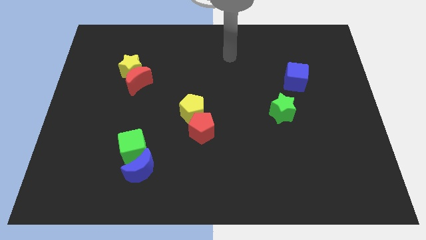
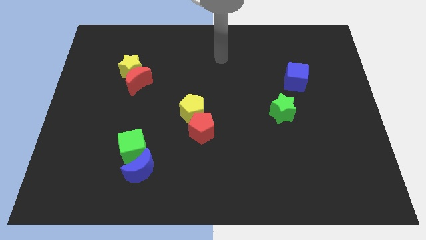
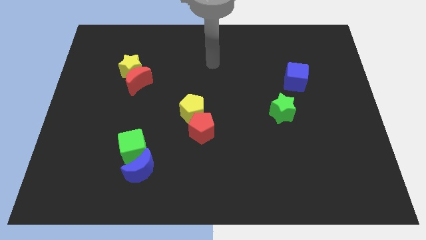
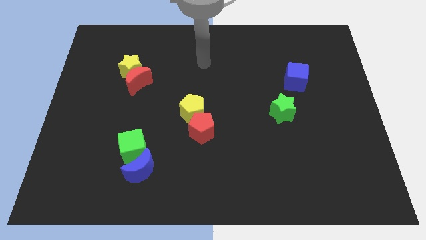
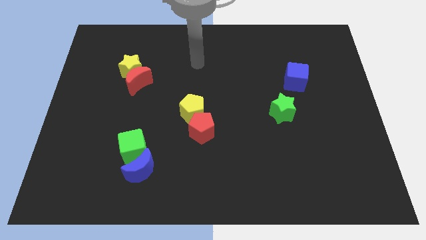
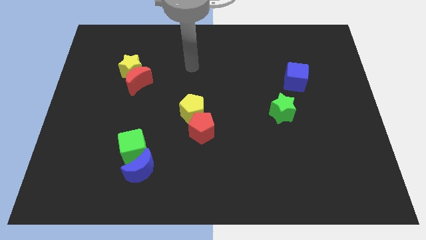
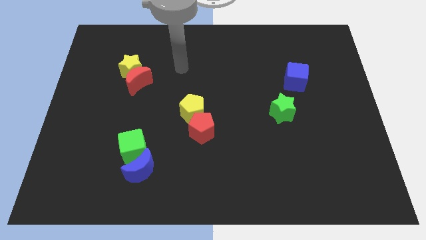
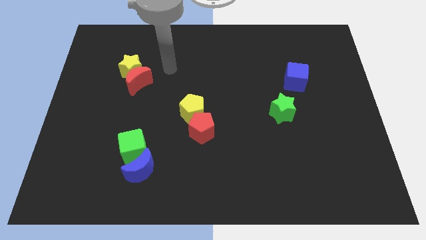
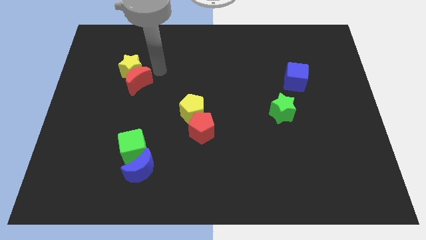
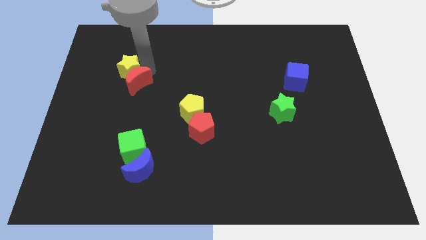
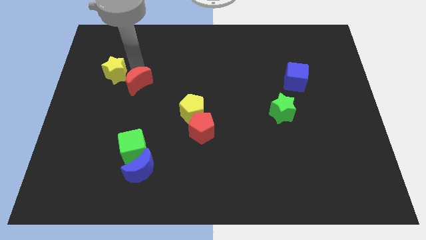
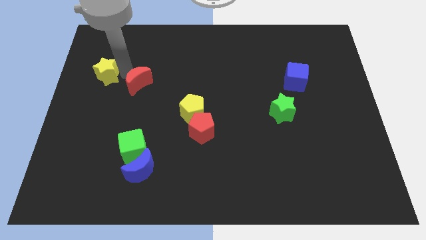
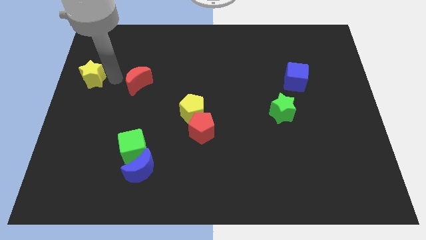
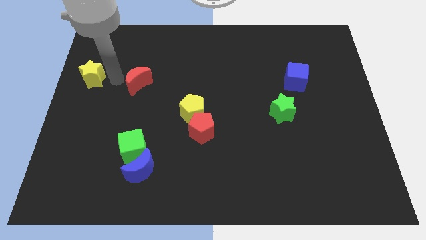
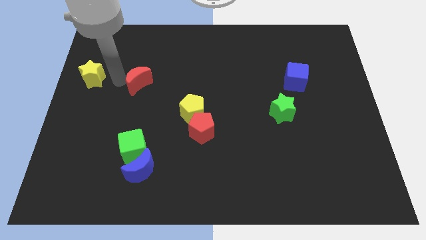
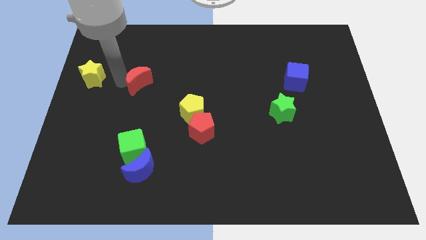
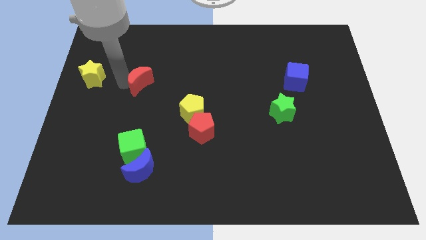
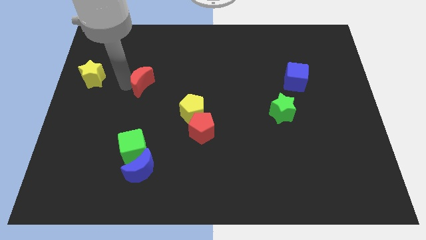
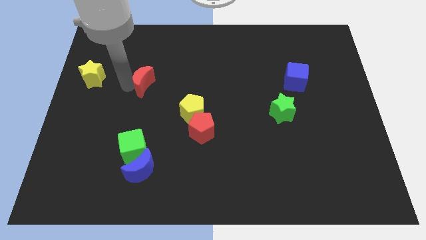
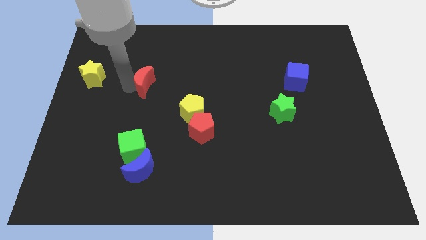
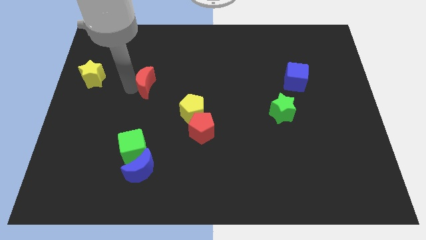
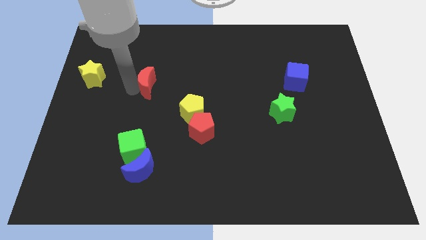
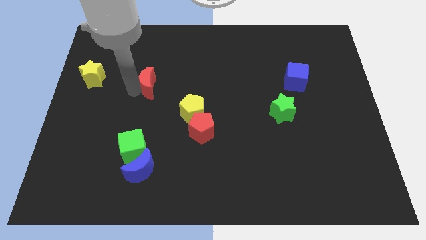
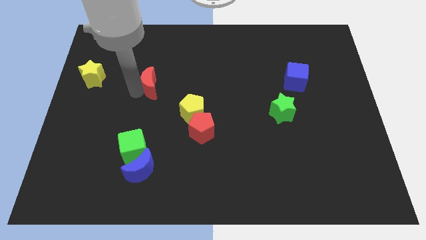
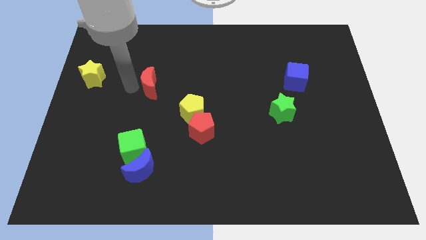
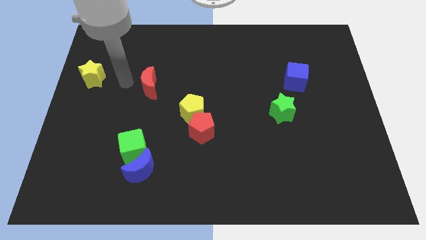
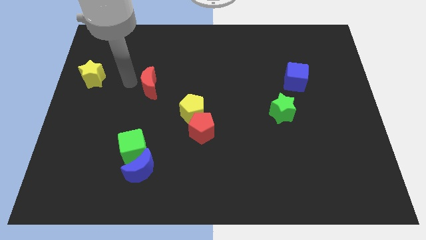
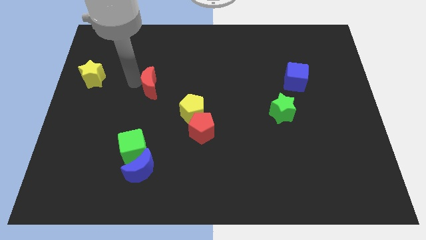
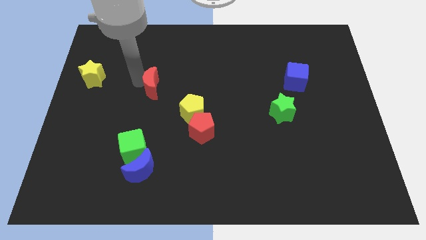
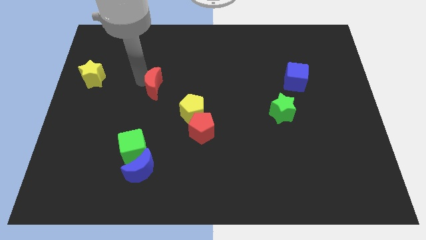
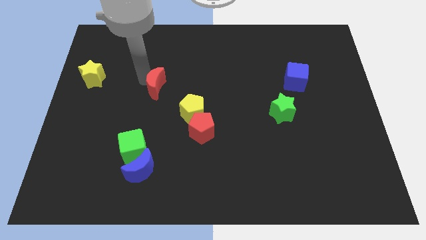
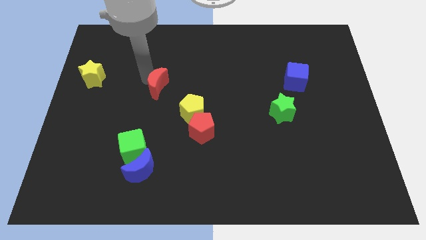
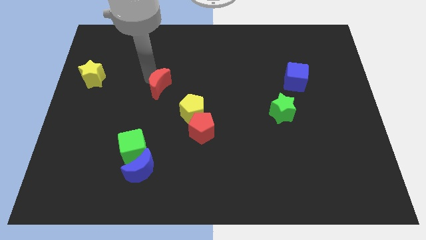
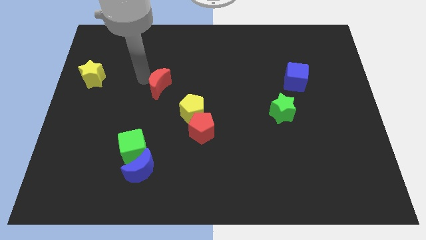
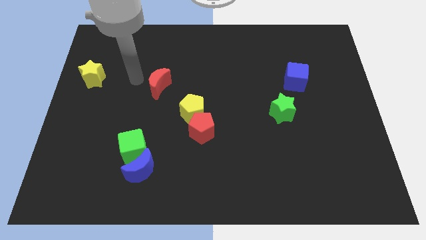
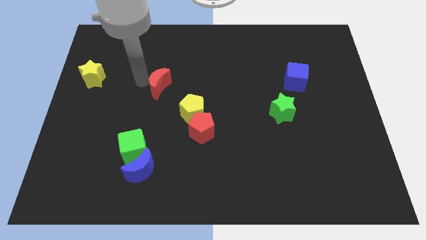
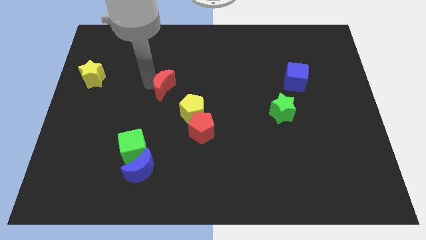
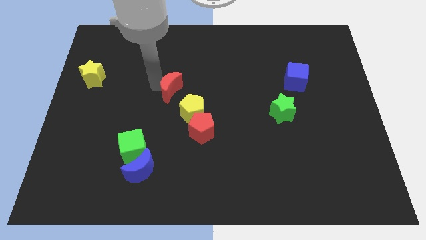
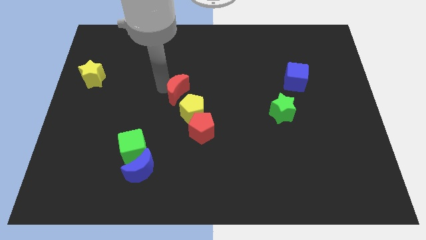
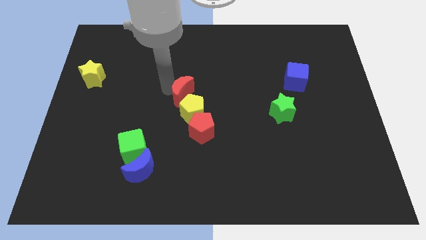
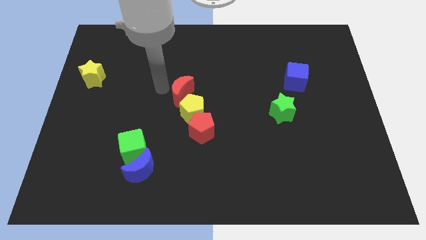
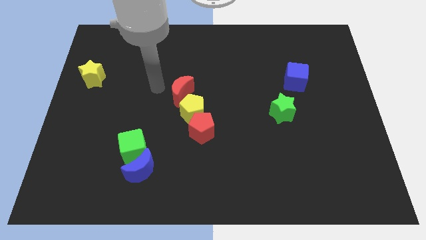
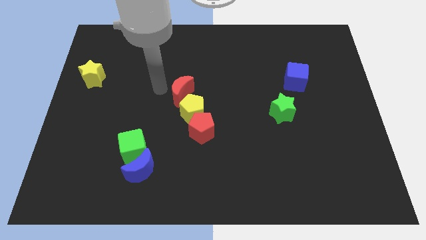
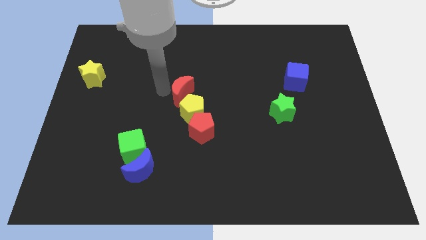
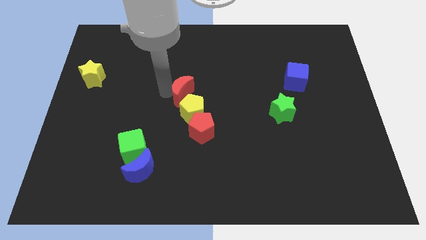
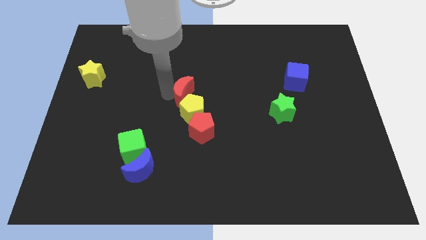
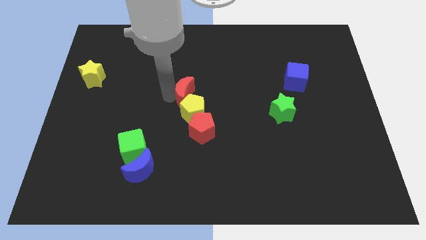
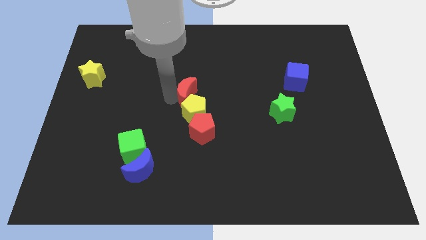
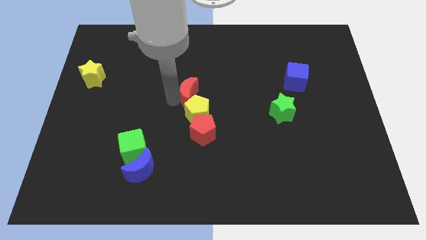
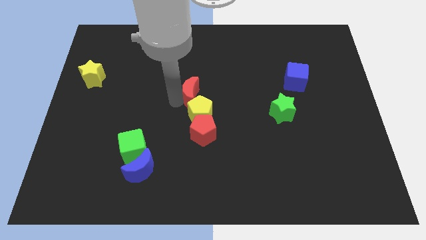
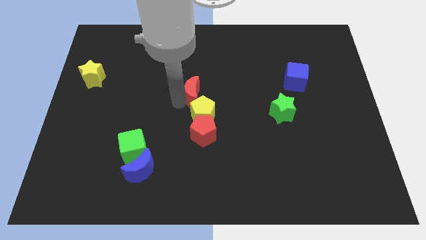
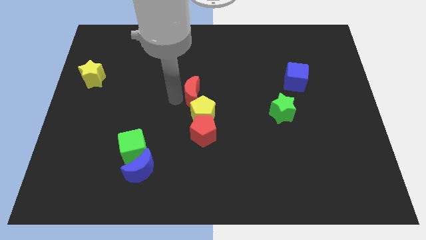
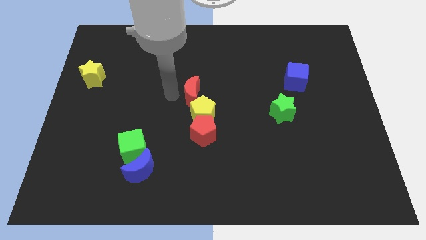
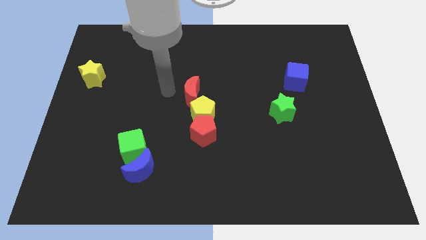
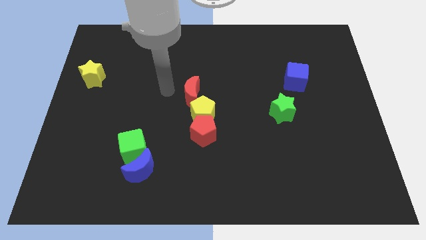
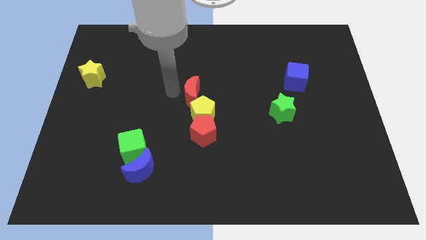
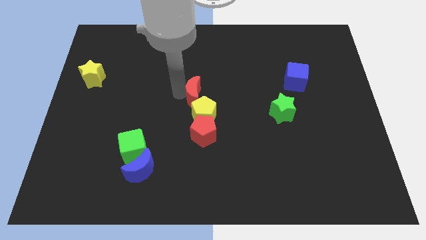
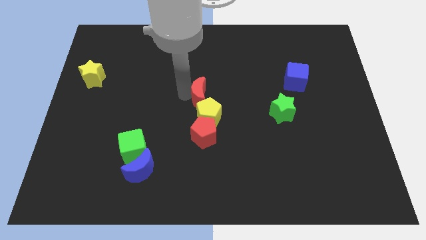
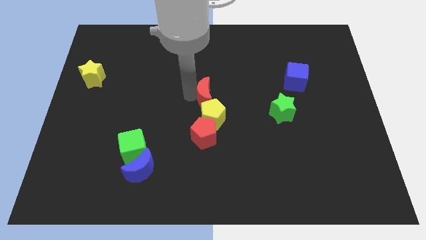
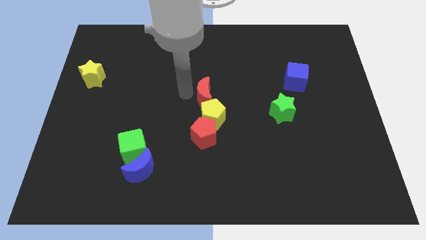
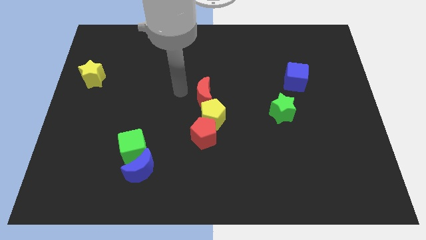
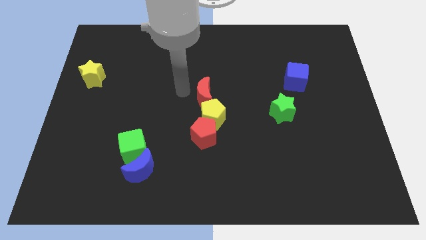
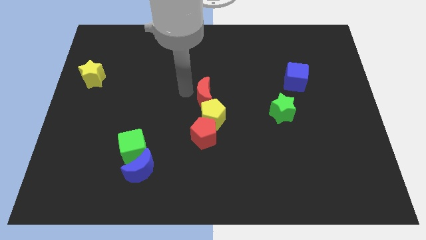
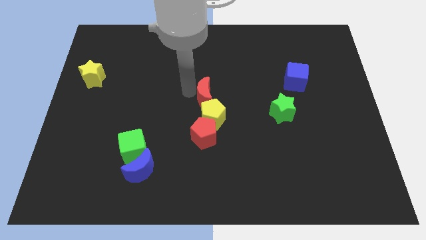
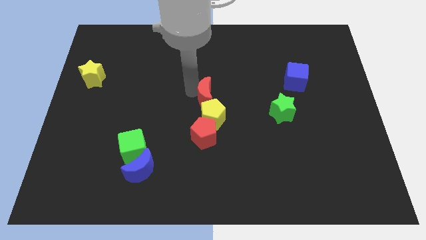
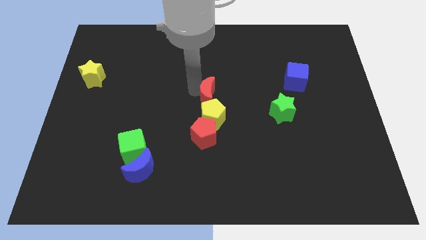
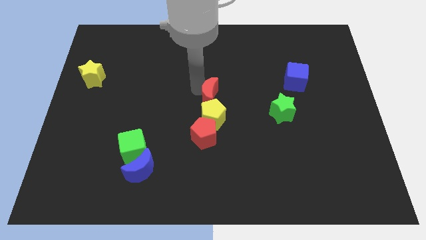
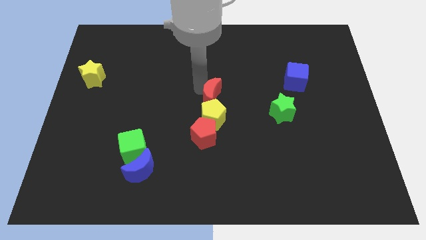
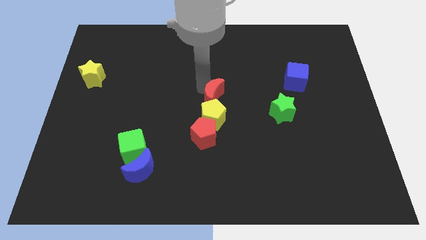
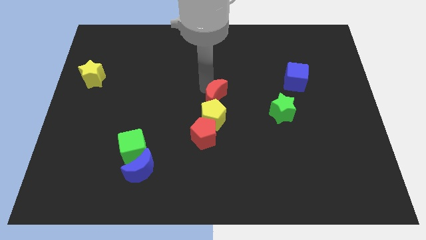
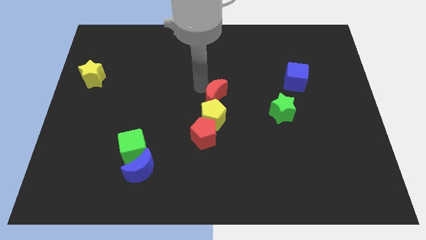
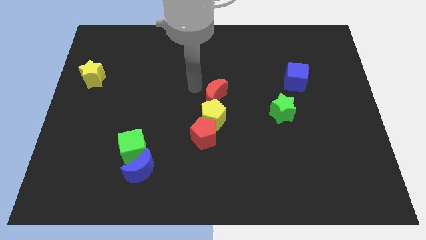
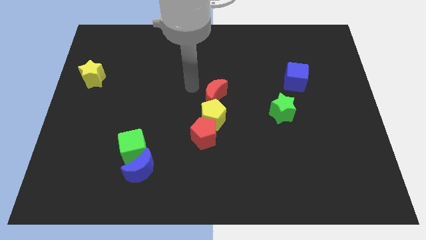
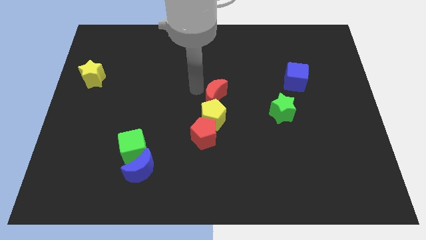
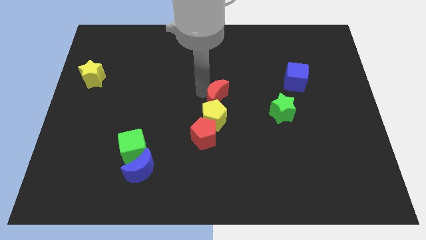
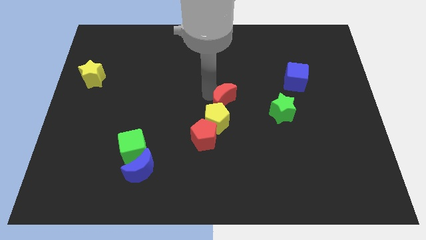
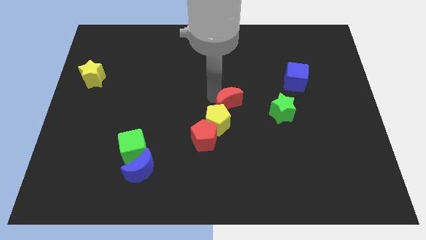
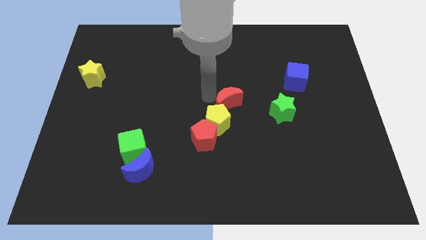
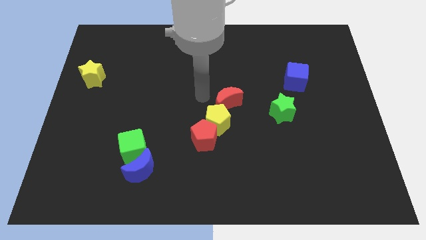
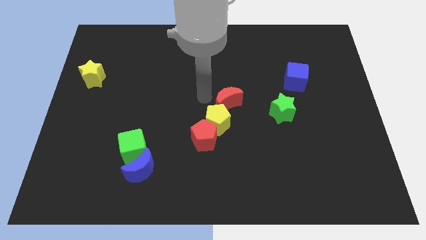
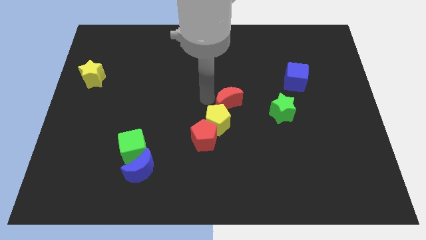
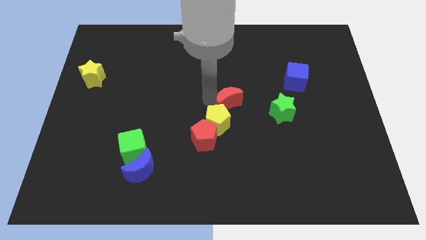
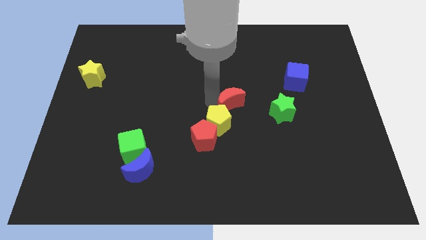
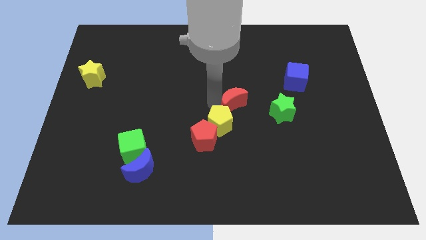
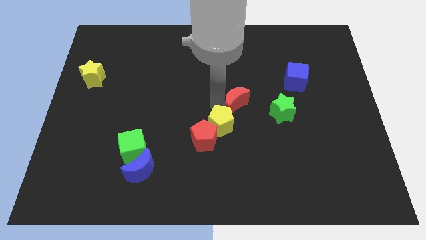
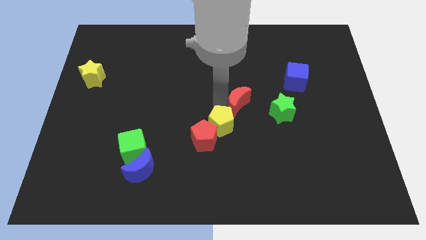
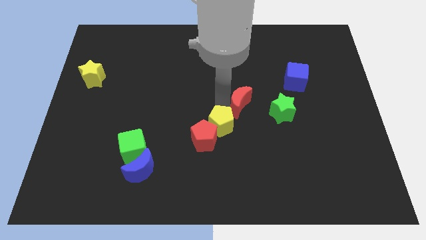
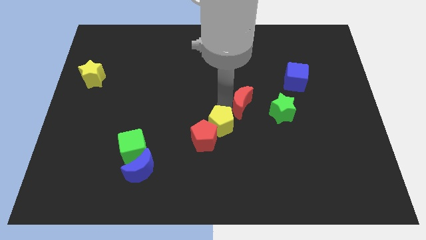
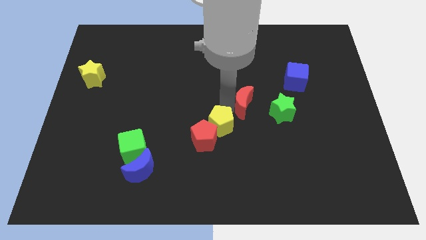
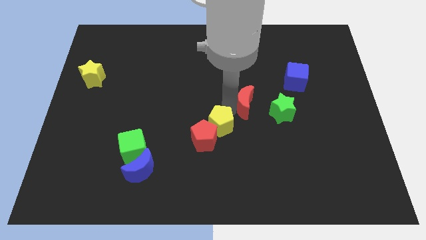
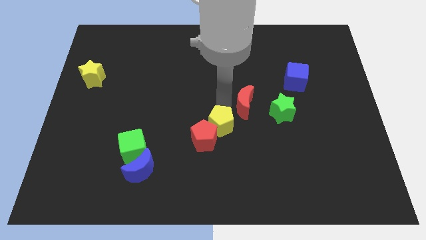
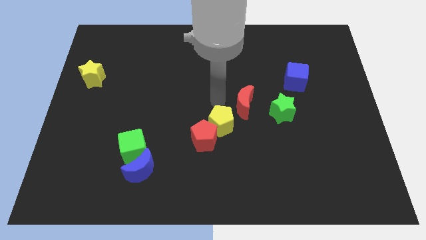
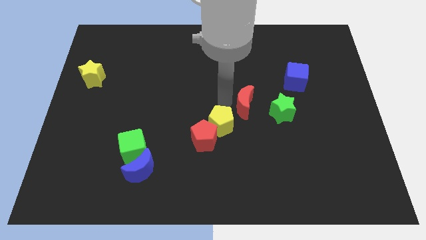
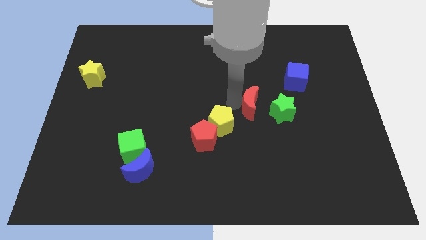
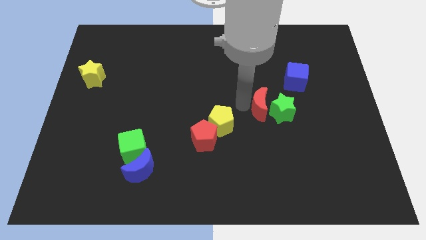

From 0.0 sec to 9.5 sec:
put the red moon close to the green star
